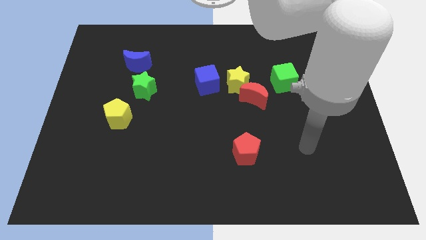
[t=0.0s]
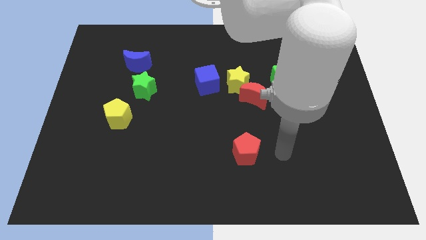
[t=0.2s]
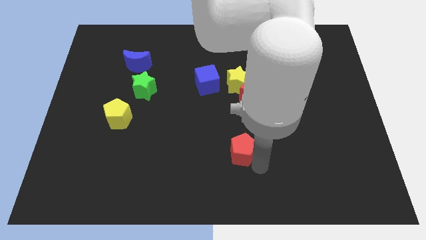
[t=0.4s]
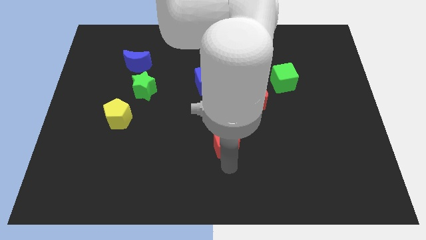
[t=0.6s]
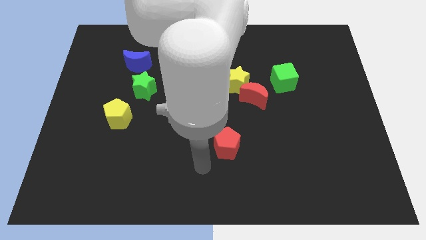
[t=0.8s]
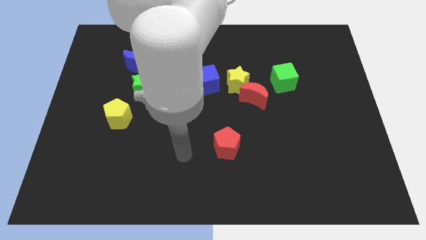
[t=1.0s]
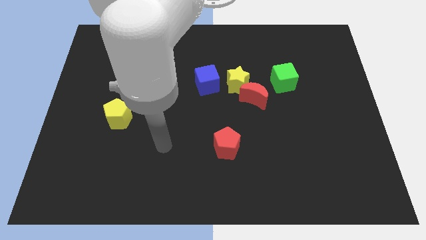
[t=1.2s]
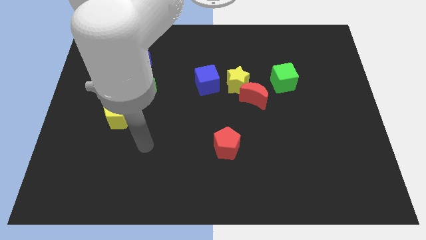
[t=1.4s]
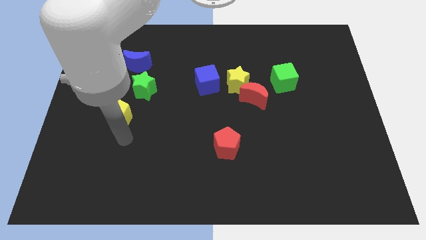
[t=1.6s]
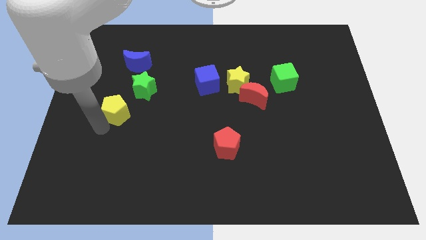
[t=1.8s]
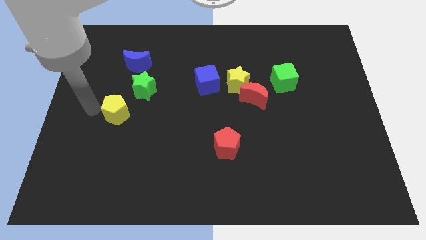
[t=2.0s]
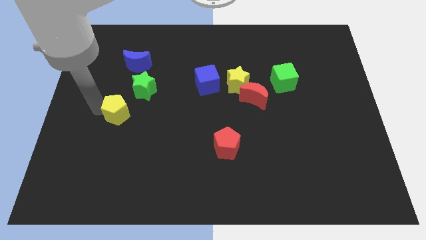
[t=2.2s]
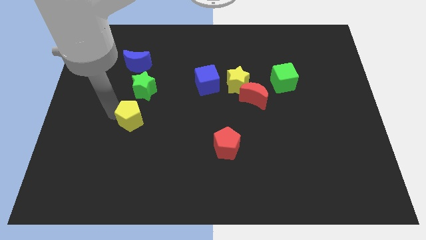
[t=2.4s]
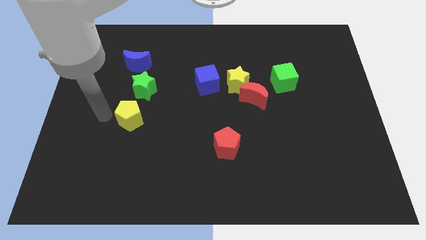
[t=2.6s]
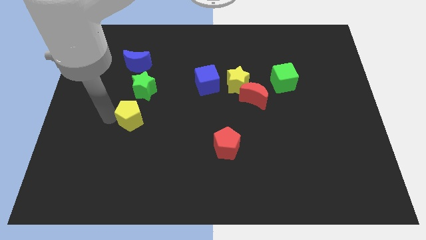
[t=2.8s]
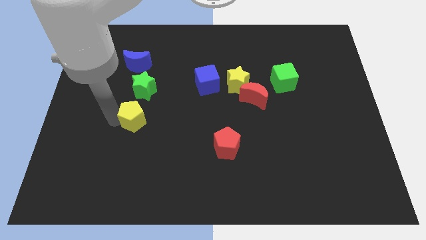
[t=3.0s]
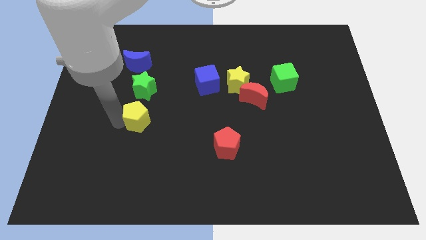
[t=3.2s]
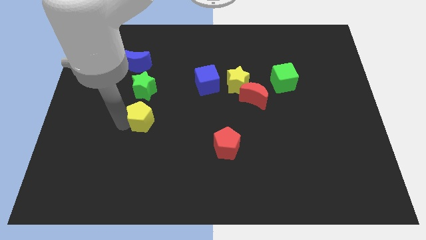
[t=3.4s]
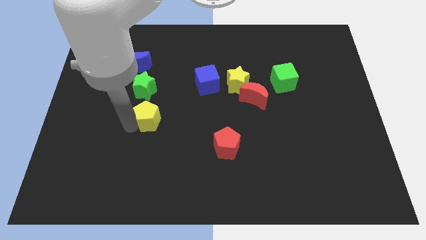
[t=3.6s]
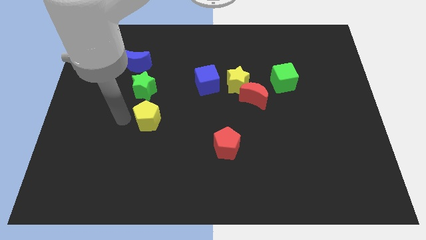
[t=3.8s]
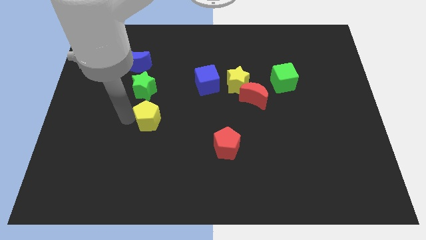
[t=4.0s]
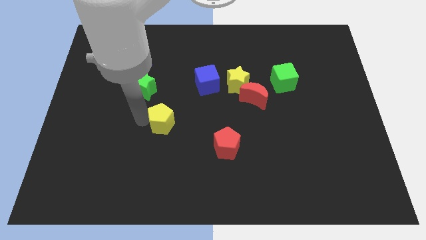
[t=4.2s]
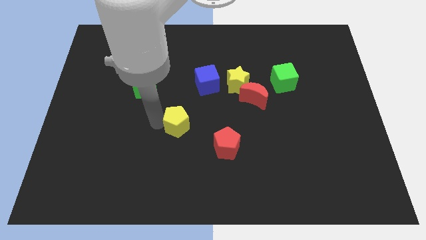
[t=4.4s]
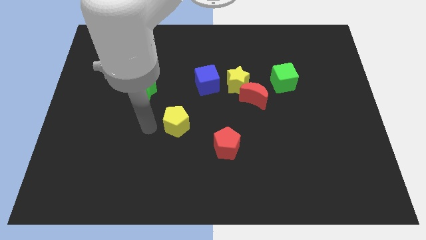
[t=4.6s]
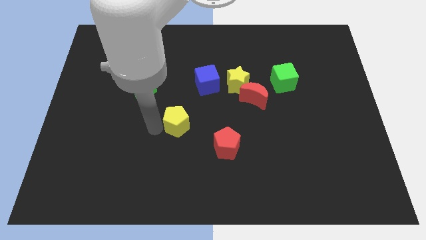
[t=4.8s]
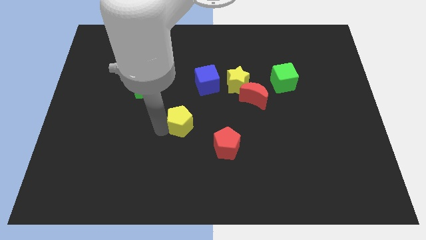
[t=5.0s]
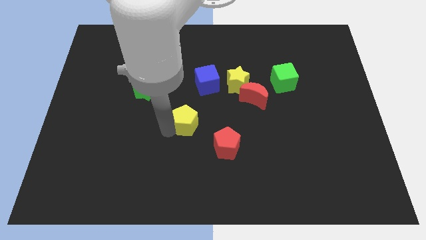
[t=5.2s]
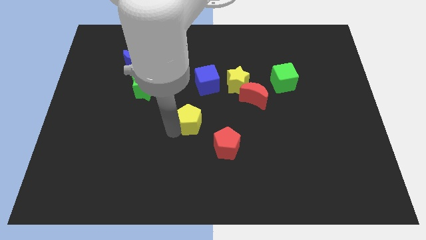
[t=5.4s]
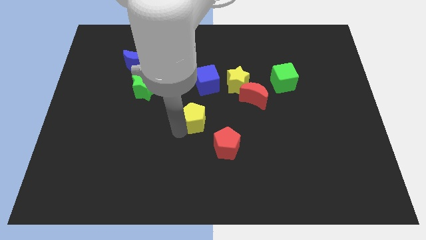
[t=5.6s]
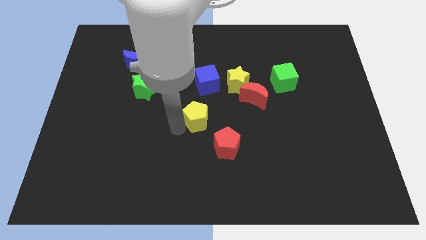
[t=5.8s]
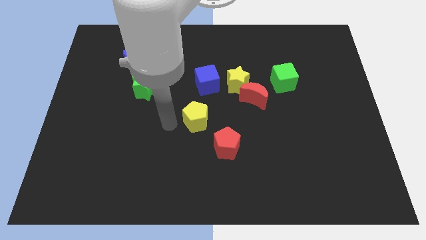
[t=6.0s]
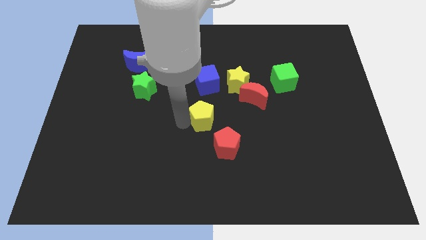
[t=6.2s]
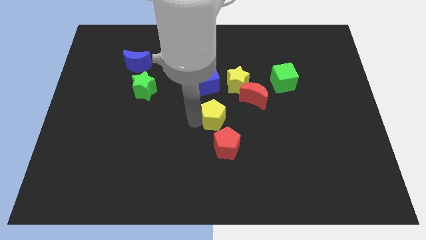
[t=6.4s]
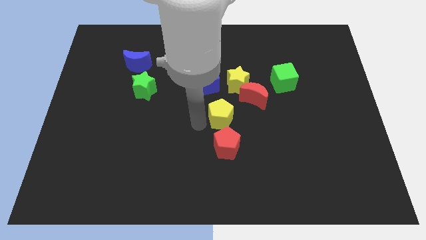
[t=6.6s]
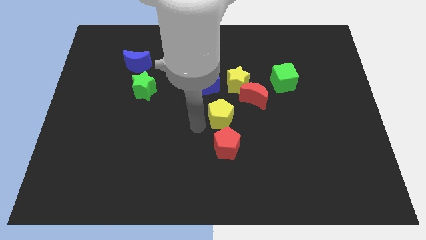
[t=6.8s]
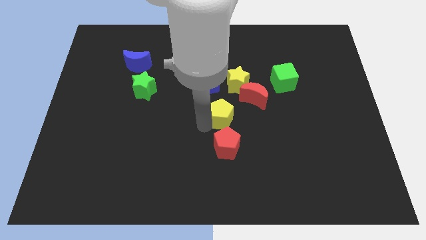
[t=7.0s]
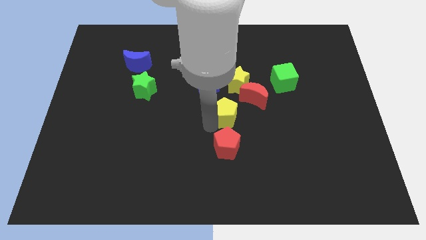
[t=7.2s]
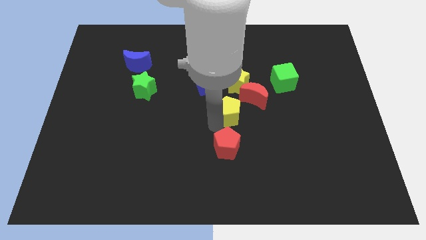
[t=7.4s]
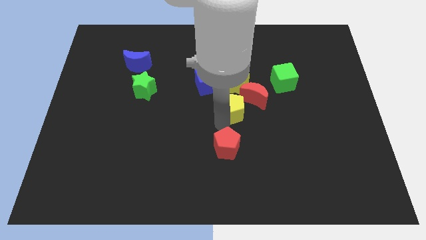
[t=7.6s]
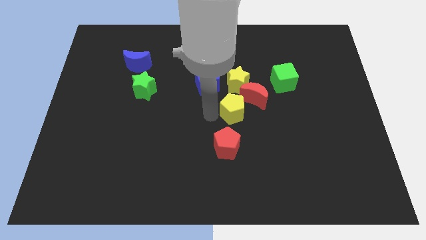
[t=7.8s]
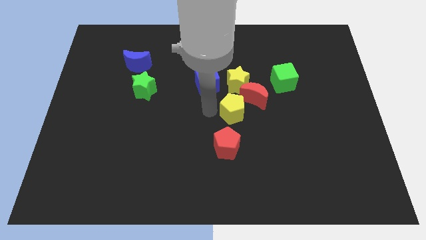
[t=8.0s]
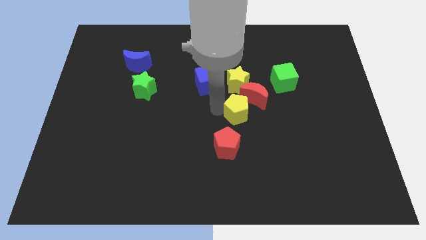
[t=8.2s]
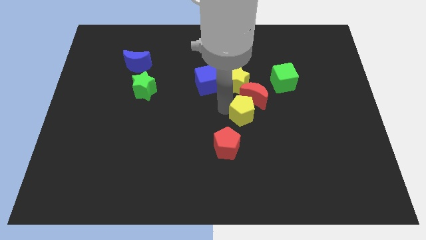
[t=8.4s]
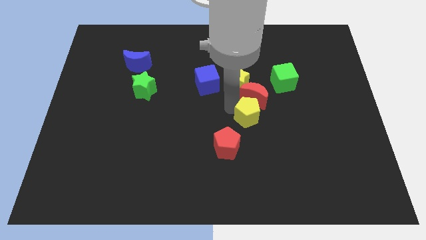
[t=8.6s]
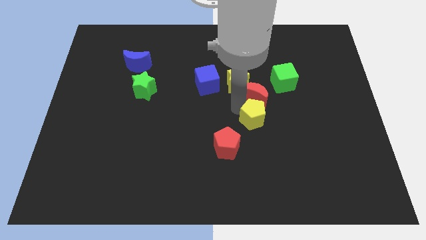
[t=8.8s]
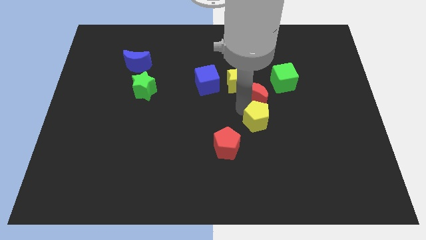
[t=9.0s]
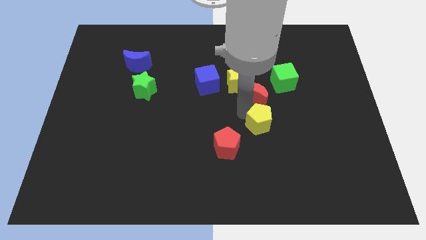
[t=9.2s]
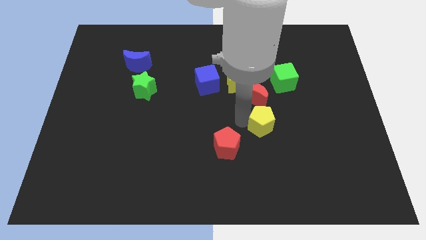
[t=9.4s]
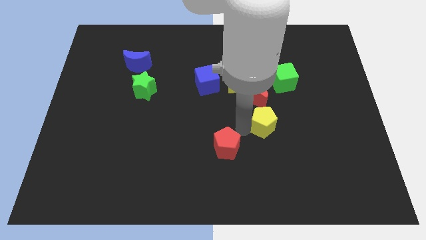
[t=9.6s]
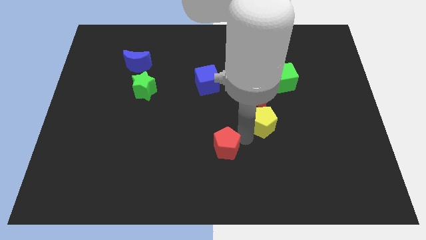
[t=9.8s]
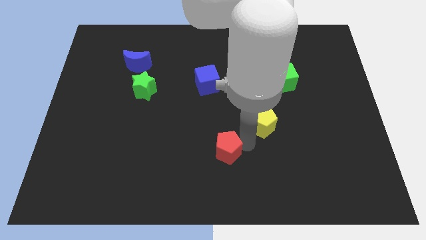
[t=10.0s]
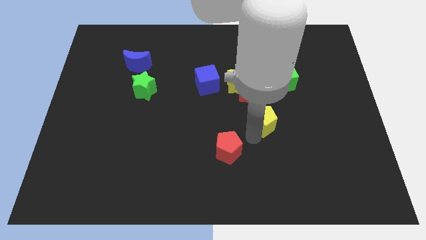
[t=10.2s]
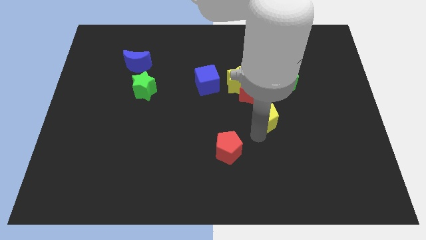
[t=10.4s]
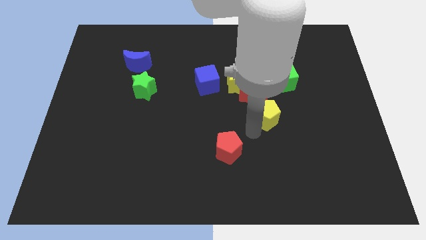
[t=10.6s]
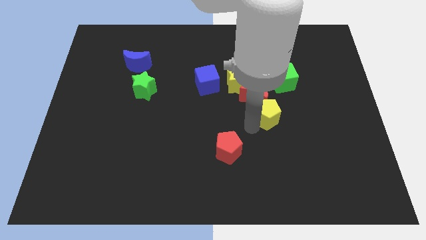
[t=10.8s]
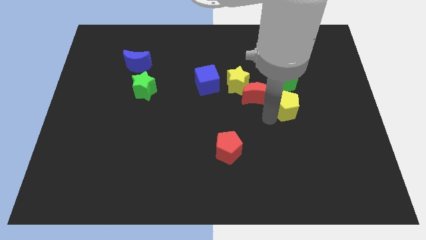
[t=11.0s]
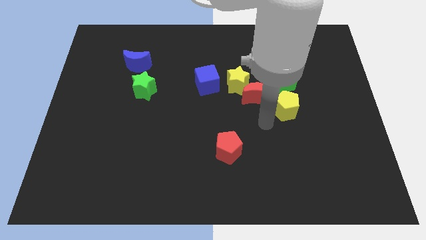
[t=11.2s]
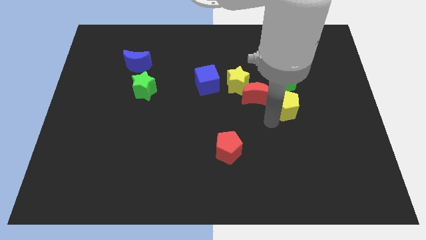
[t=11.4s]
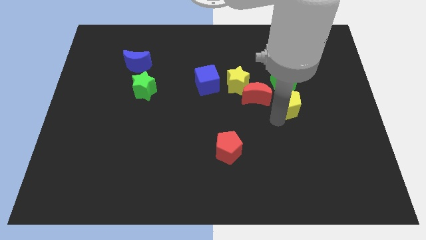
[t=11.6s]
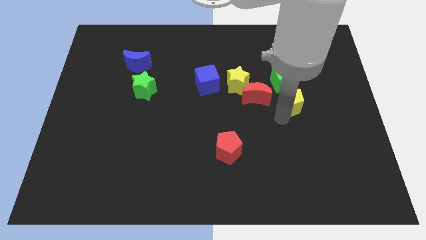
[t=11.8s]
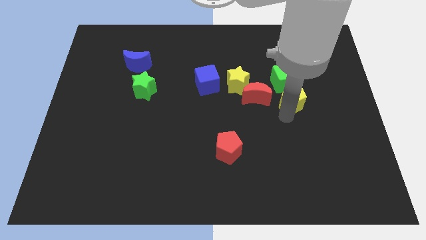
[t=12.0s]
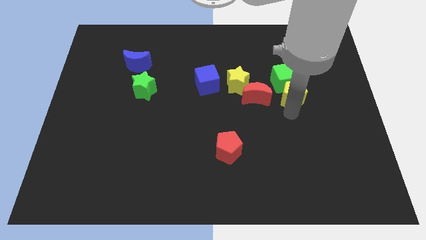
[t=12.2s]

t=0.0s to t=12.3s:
slide the yellow pentagon just right of the yellow star
